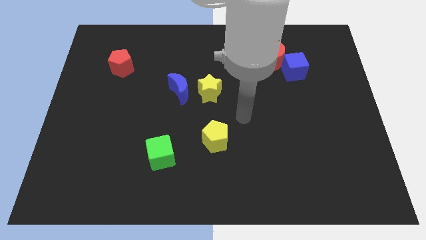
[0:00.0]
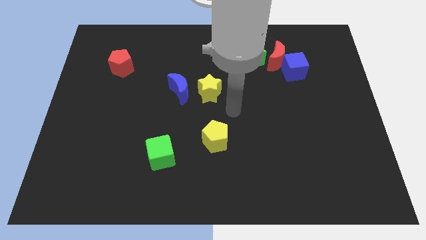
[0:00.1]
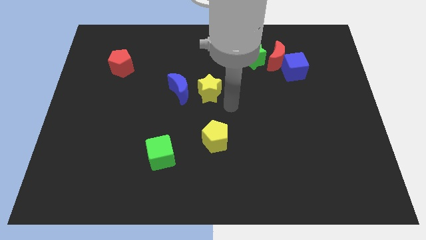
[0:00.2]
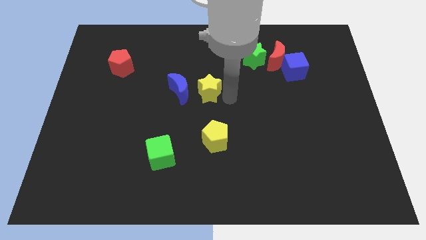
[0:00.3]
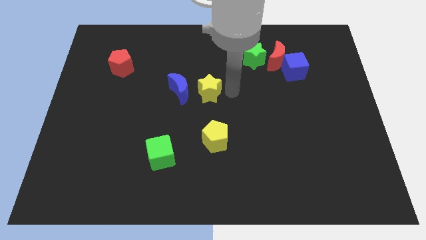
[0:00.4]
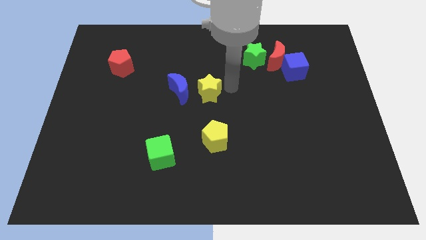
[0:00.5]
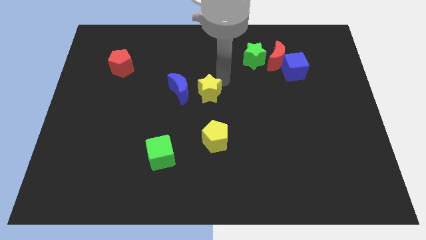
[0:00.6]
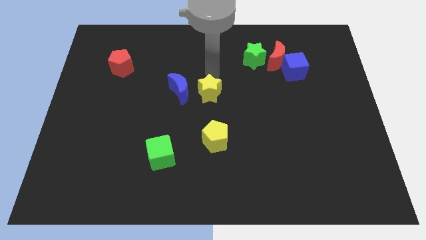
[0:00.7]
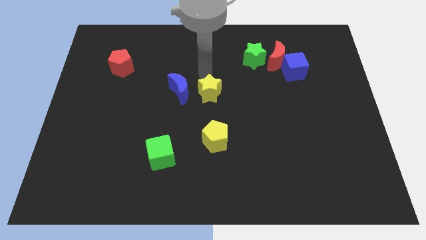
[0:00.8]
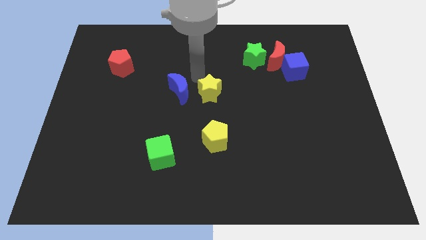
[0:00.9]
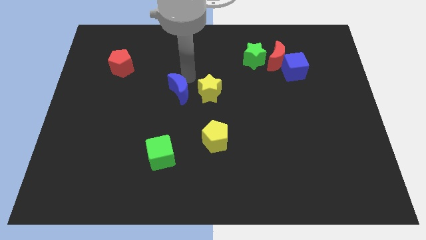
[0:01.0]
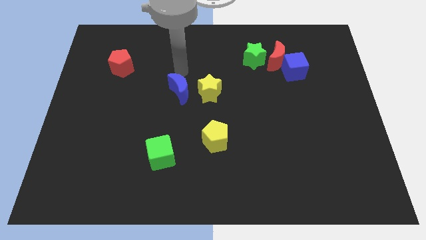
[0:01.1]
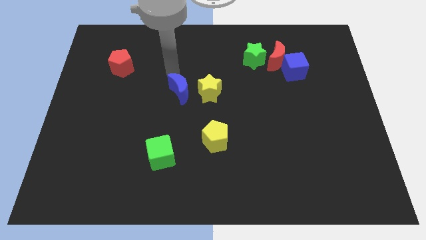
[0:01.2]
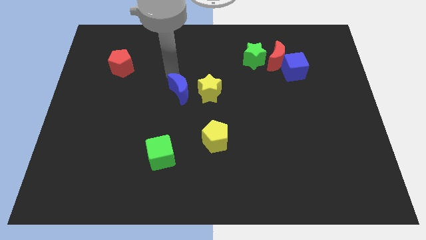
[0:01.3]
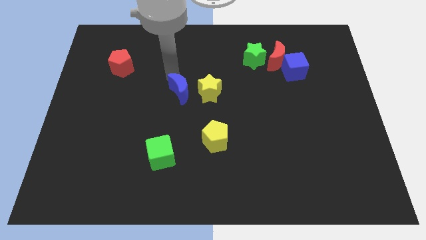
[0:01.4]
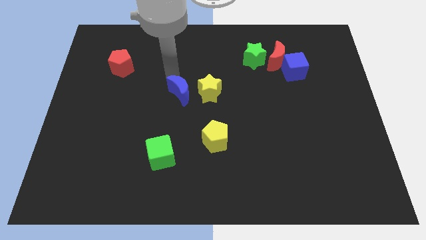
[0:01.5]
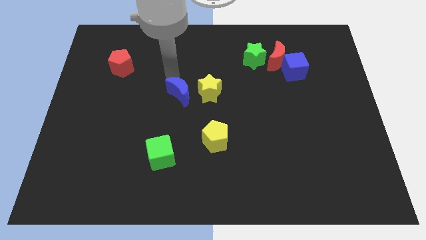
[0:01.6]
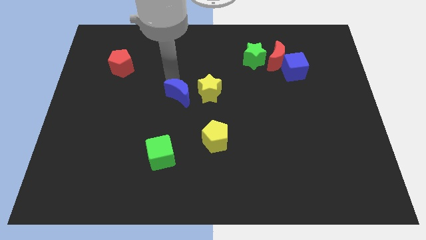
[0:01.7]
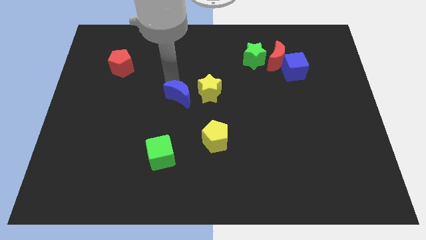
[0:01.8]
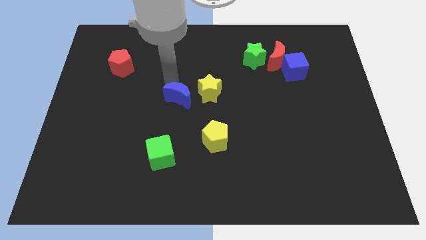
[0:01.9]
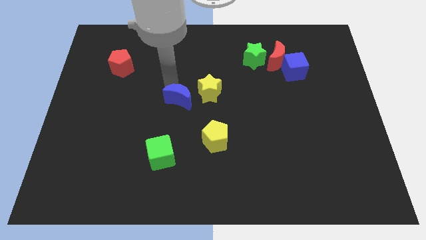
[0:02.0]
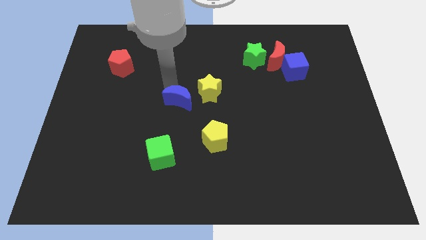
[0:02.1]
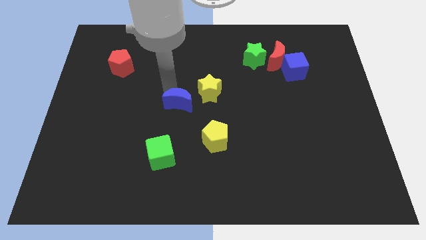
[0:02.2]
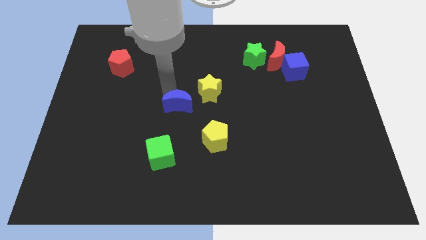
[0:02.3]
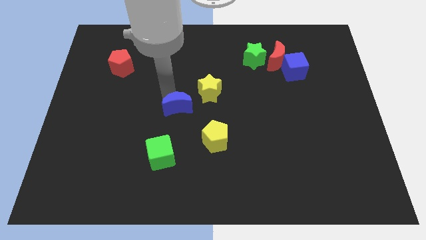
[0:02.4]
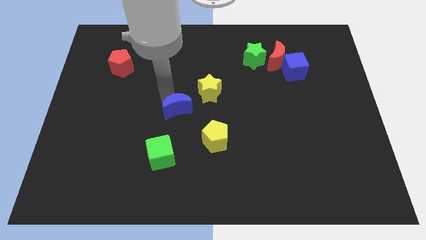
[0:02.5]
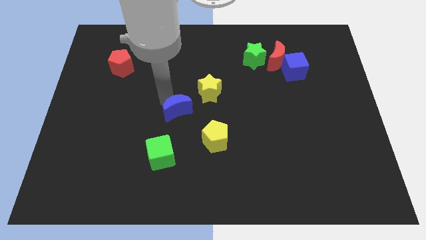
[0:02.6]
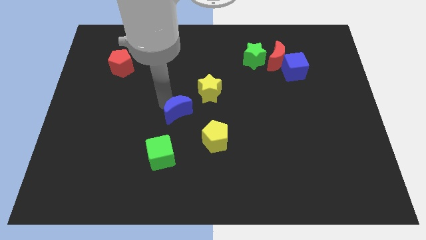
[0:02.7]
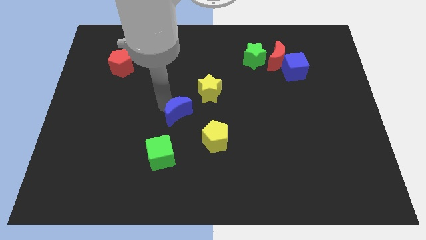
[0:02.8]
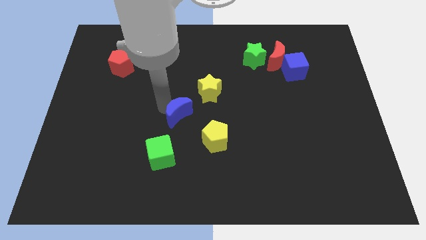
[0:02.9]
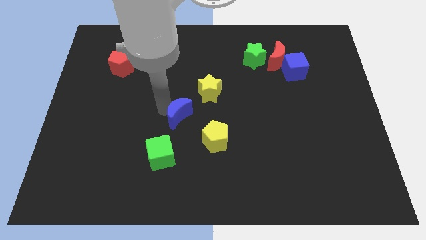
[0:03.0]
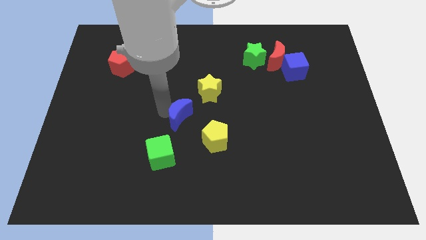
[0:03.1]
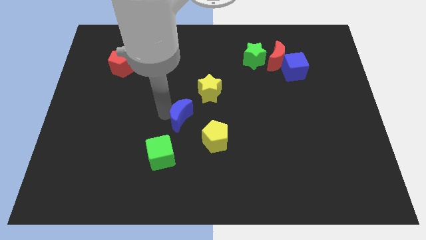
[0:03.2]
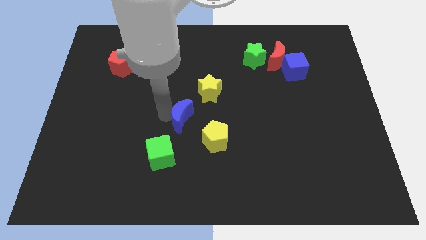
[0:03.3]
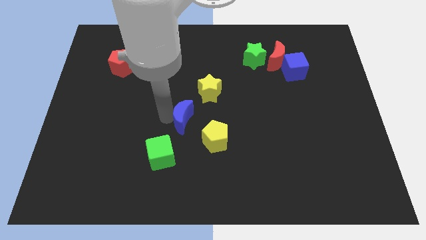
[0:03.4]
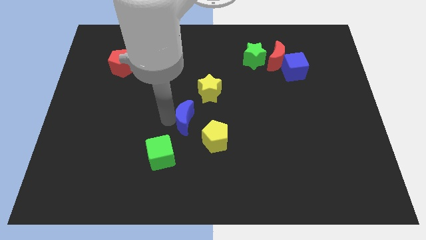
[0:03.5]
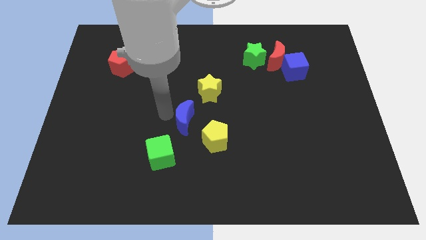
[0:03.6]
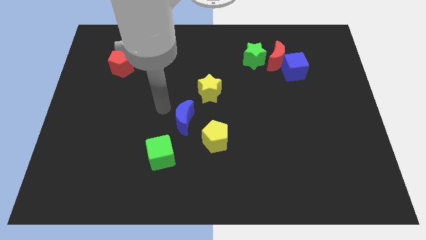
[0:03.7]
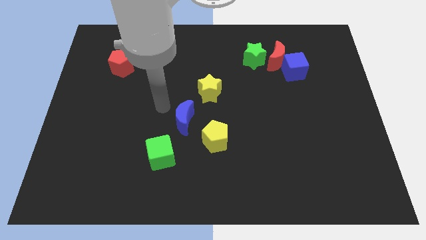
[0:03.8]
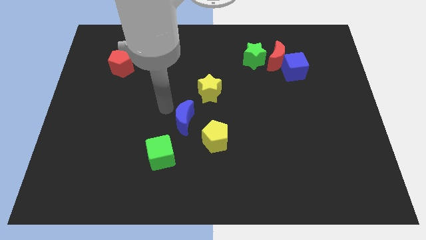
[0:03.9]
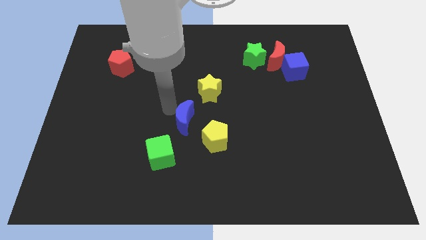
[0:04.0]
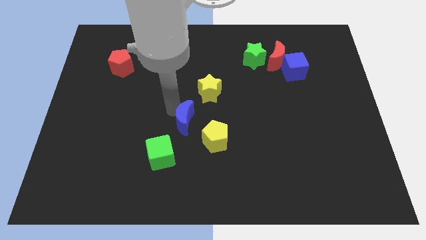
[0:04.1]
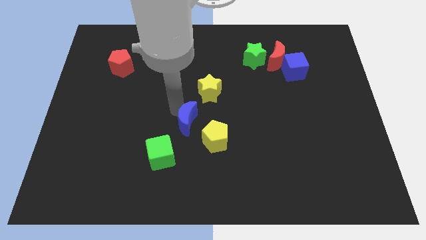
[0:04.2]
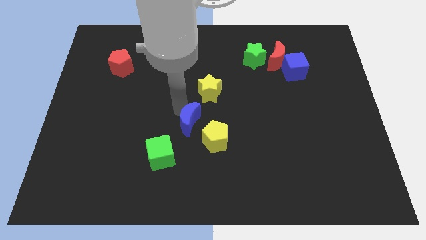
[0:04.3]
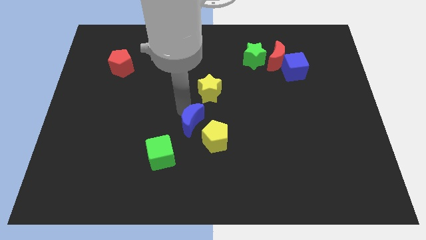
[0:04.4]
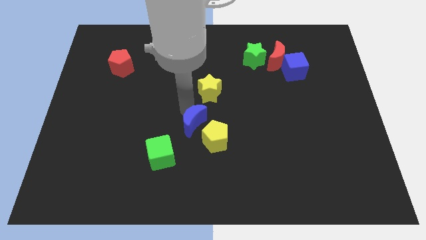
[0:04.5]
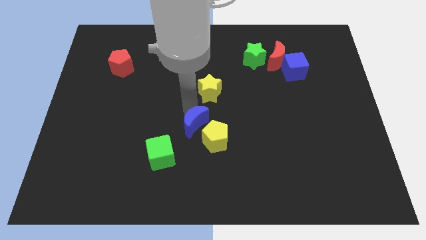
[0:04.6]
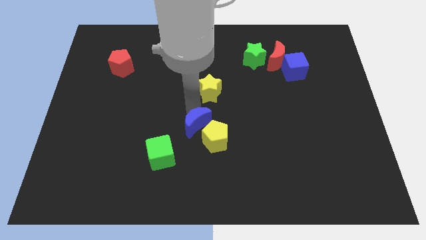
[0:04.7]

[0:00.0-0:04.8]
slide the blue moon to the yellow pentagon

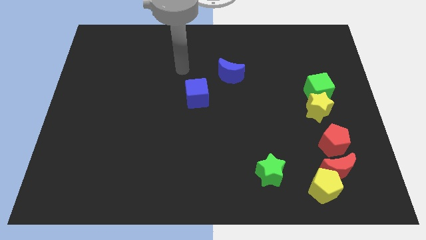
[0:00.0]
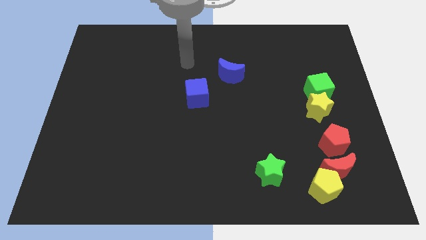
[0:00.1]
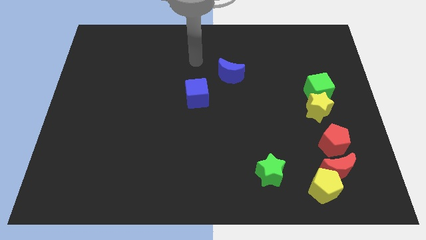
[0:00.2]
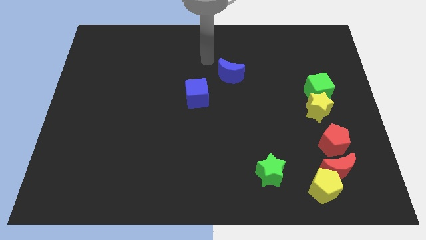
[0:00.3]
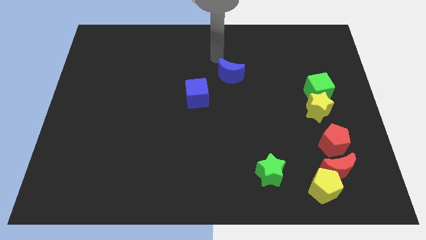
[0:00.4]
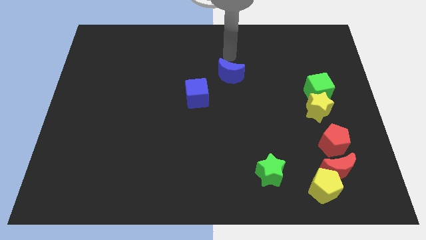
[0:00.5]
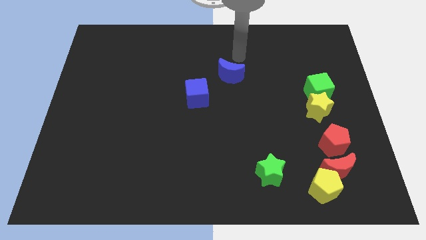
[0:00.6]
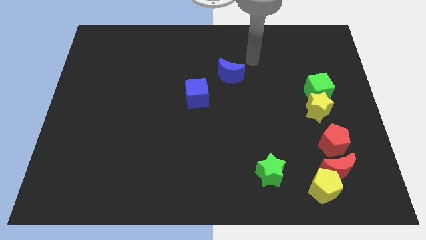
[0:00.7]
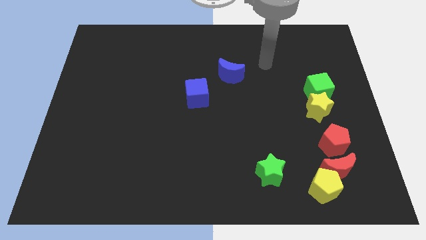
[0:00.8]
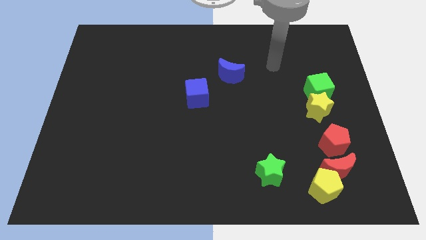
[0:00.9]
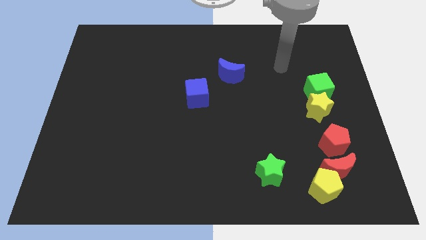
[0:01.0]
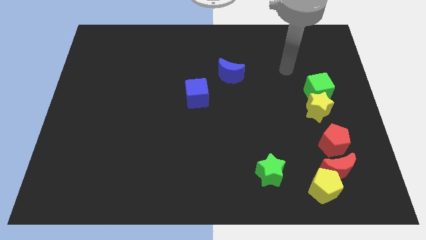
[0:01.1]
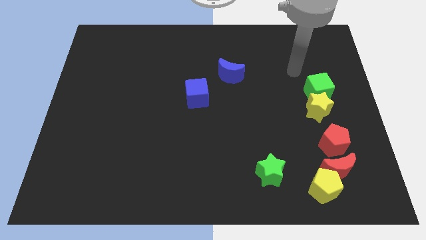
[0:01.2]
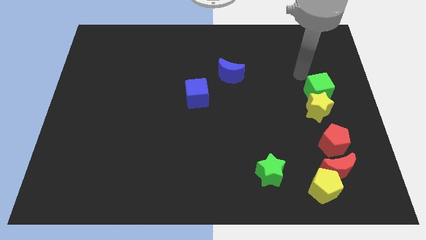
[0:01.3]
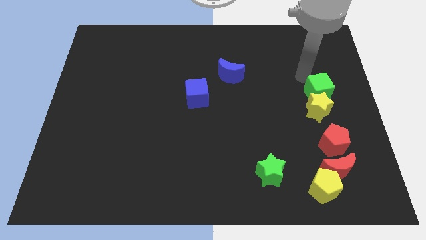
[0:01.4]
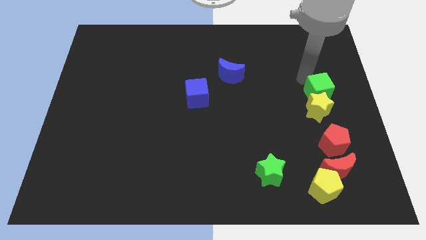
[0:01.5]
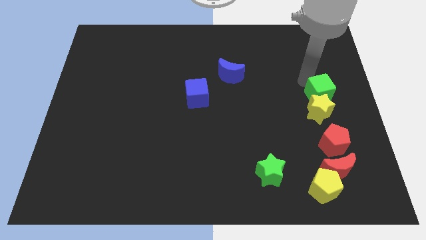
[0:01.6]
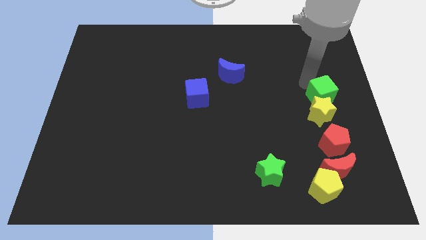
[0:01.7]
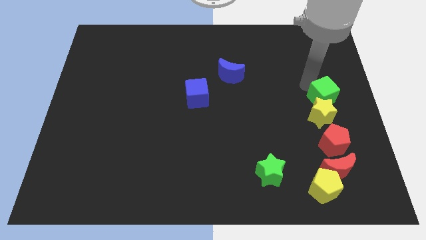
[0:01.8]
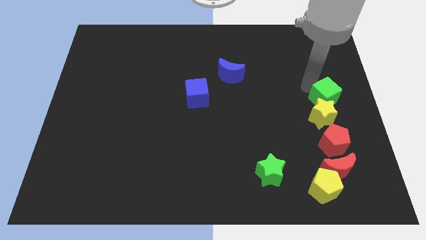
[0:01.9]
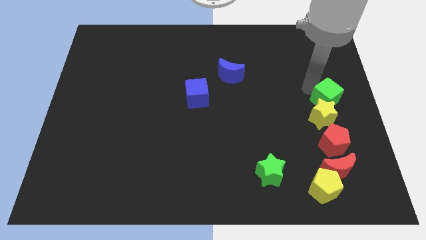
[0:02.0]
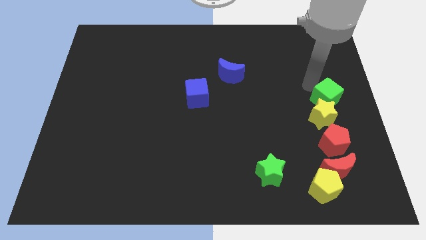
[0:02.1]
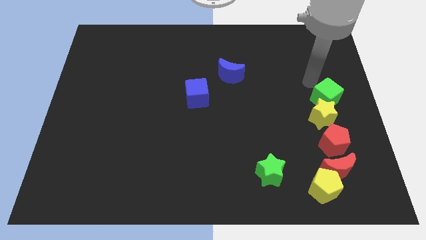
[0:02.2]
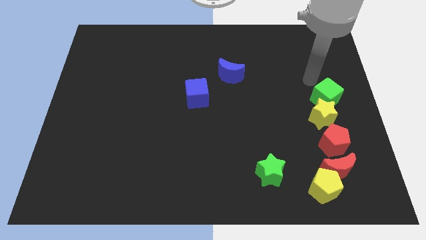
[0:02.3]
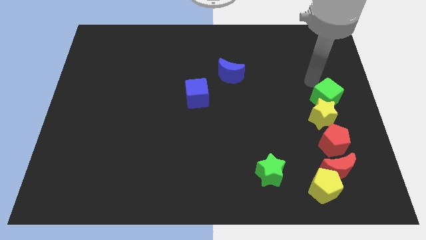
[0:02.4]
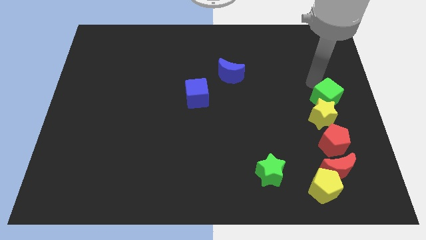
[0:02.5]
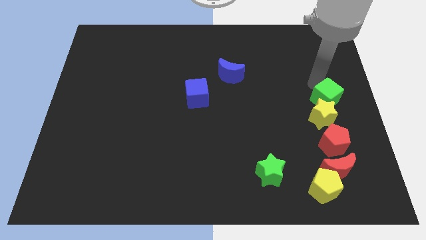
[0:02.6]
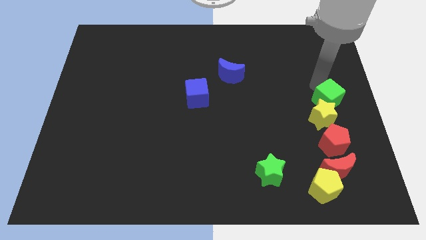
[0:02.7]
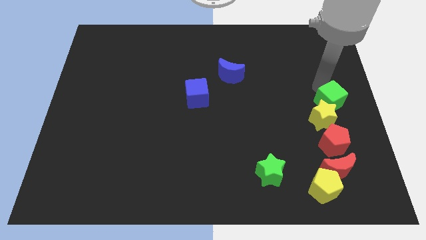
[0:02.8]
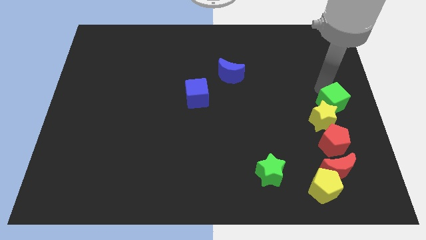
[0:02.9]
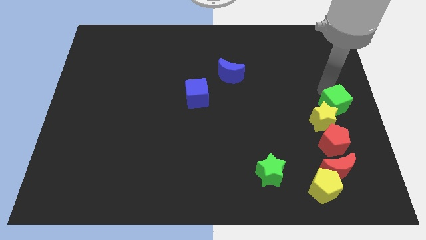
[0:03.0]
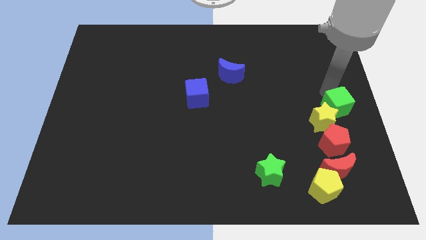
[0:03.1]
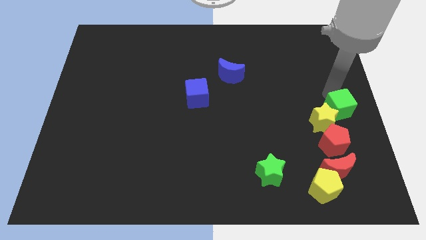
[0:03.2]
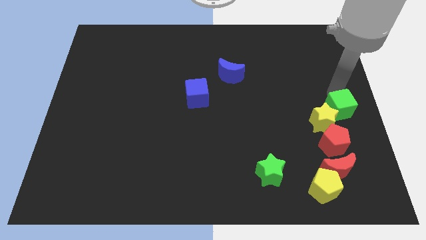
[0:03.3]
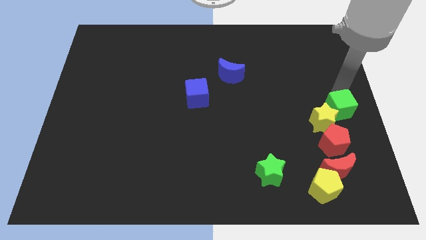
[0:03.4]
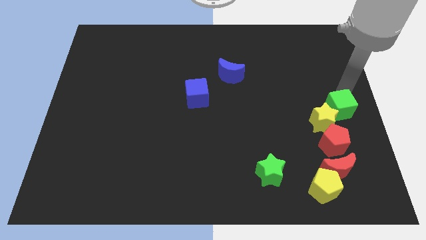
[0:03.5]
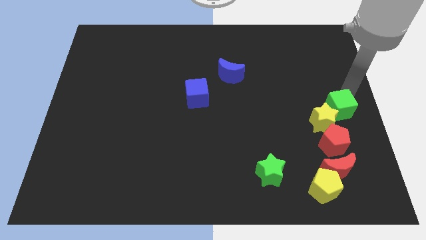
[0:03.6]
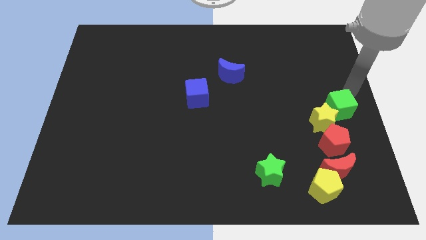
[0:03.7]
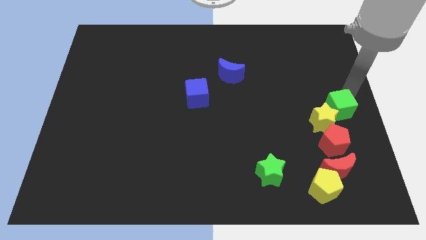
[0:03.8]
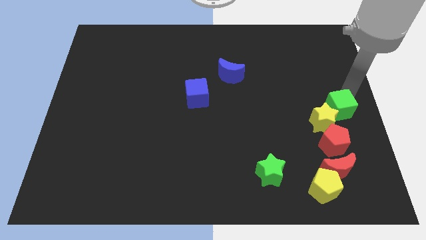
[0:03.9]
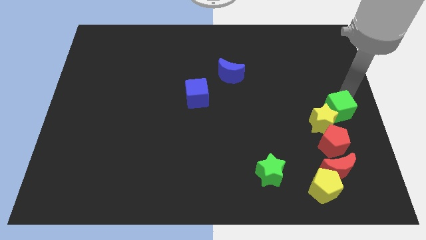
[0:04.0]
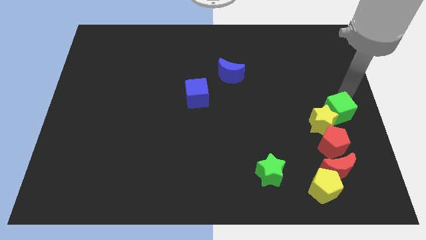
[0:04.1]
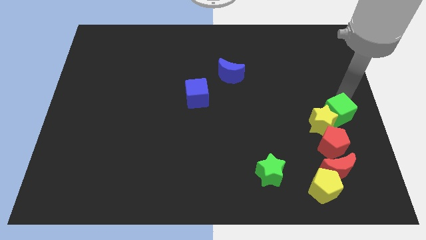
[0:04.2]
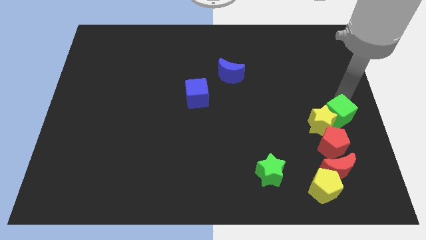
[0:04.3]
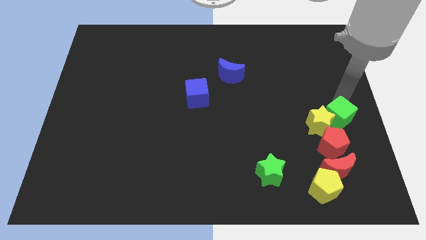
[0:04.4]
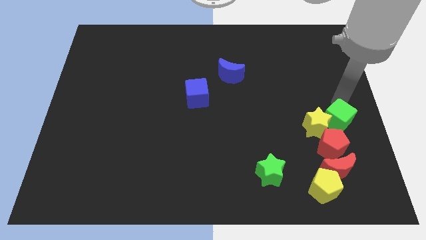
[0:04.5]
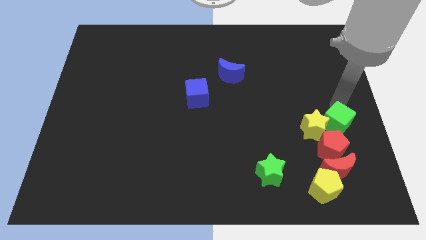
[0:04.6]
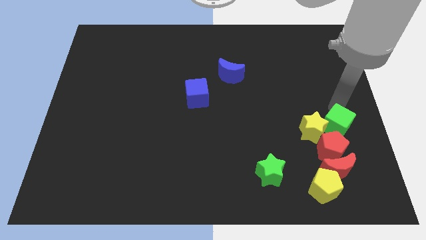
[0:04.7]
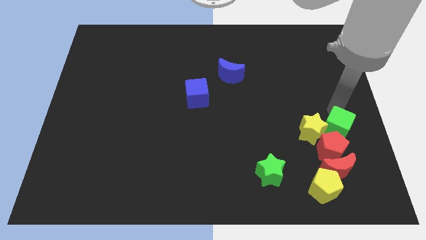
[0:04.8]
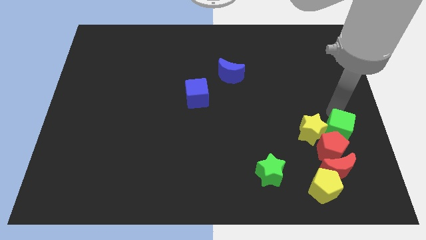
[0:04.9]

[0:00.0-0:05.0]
put the green cube close to the red pentagon
